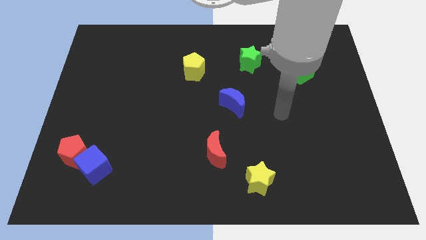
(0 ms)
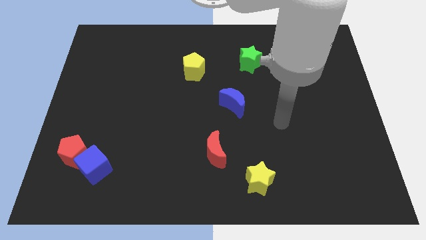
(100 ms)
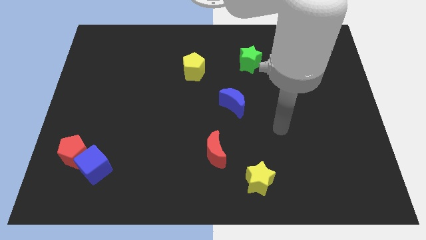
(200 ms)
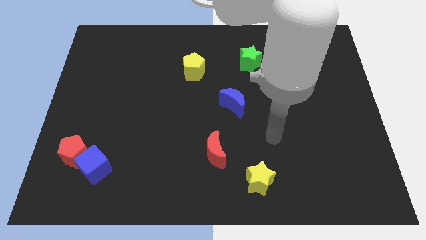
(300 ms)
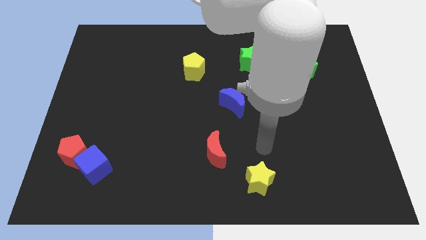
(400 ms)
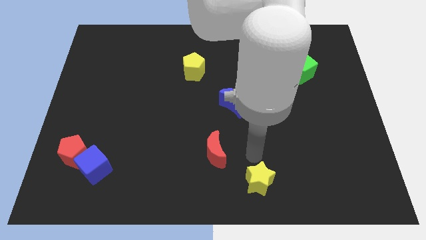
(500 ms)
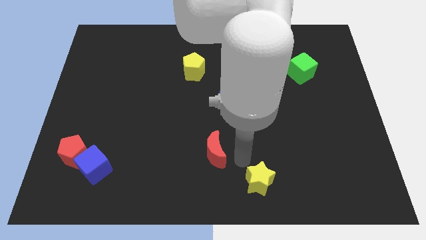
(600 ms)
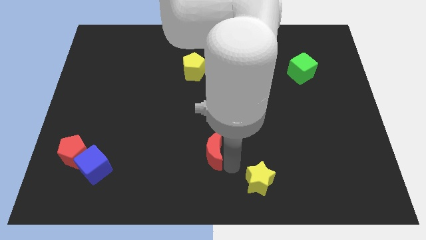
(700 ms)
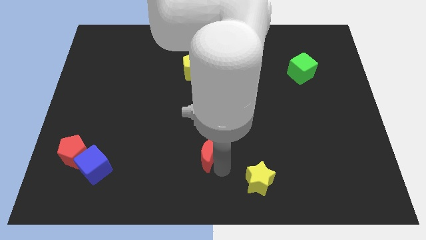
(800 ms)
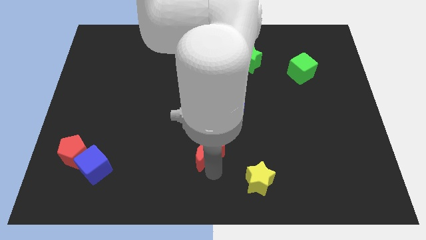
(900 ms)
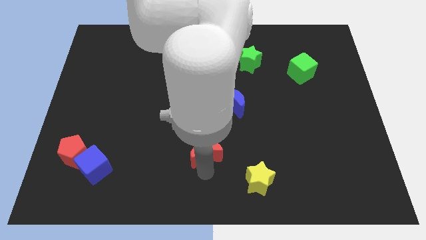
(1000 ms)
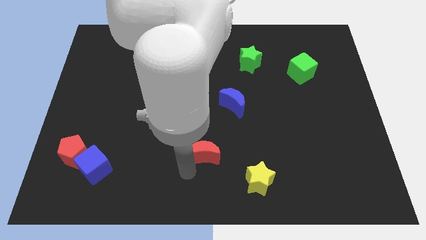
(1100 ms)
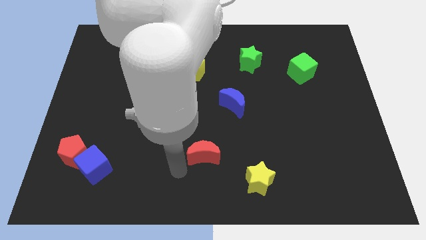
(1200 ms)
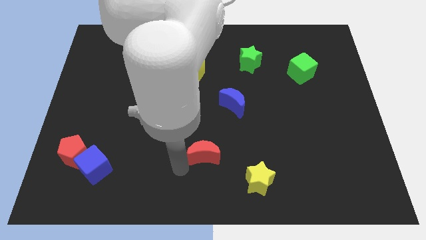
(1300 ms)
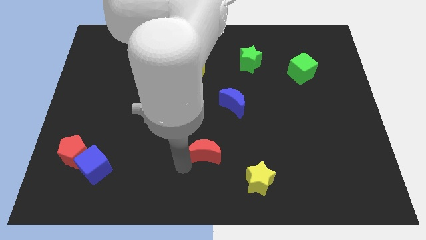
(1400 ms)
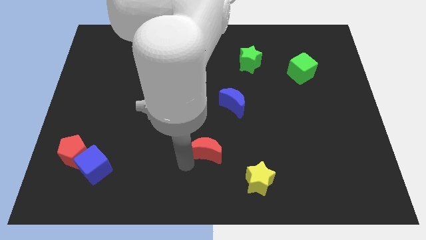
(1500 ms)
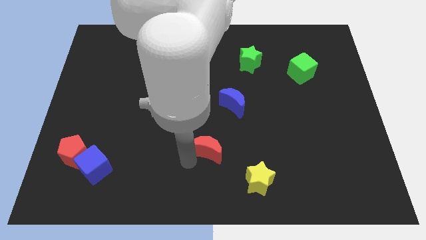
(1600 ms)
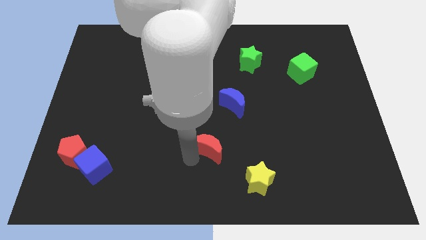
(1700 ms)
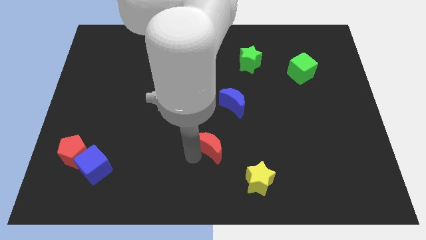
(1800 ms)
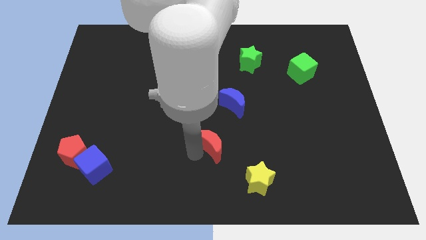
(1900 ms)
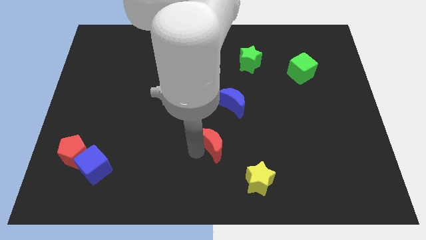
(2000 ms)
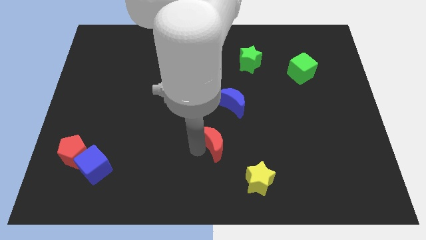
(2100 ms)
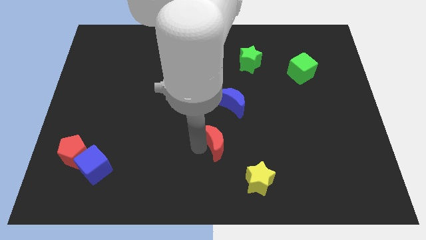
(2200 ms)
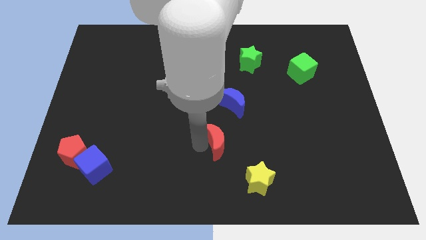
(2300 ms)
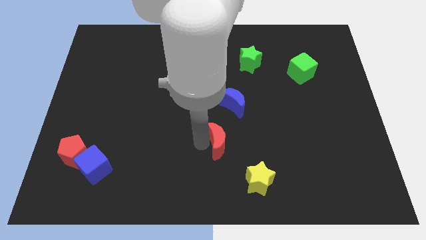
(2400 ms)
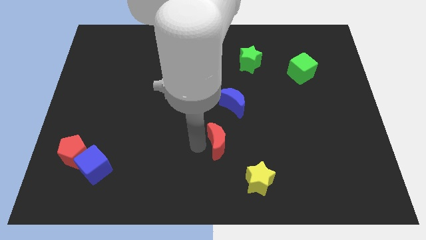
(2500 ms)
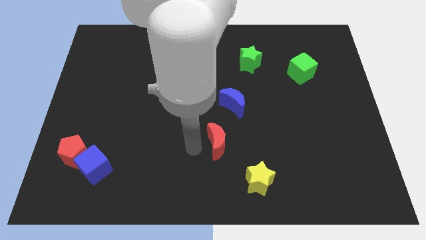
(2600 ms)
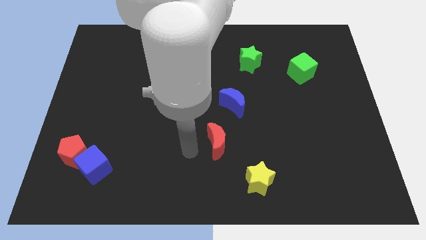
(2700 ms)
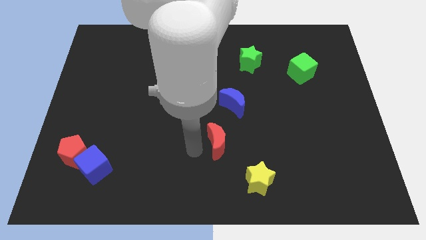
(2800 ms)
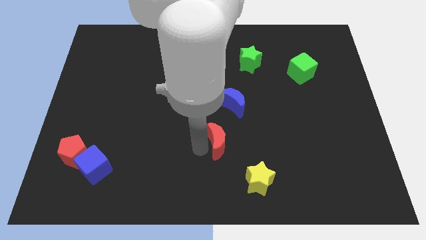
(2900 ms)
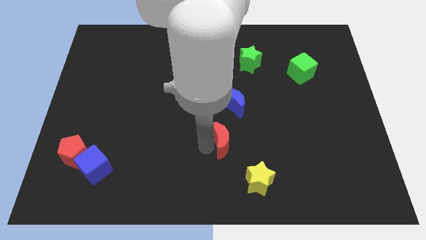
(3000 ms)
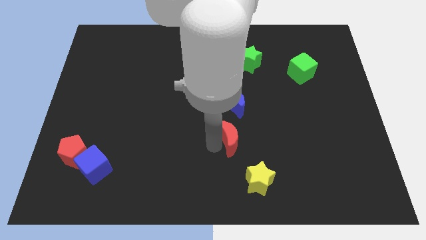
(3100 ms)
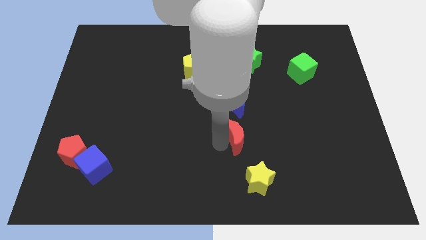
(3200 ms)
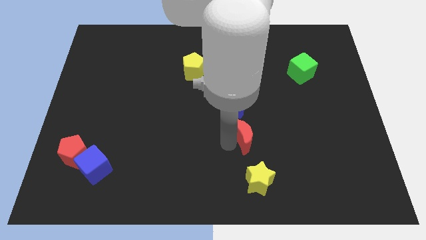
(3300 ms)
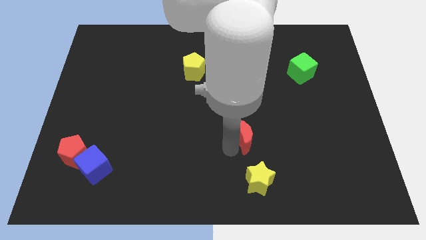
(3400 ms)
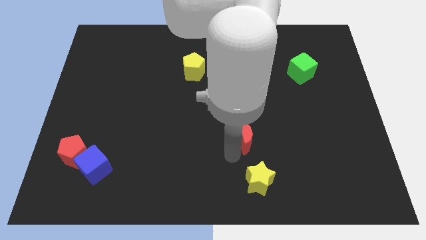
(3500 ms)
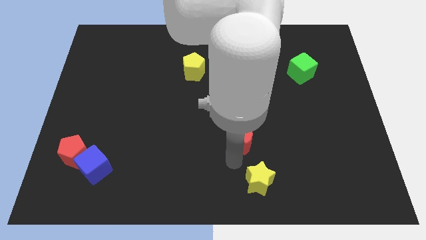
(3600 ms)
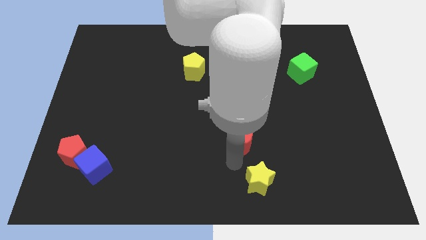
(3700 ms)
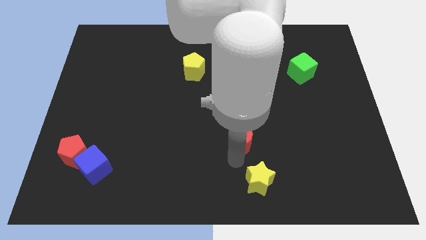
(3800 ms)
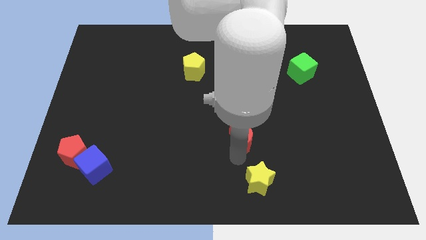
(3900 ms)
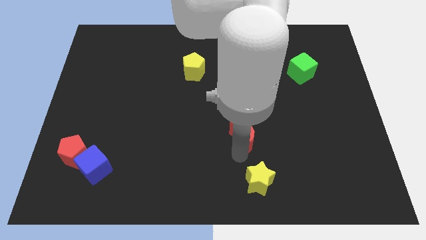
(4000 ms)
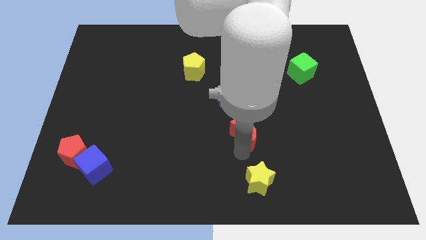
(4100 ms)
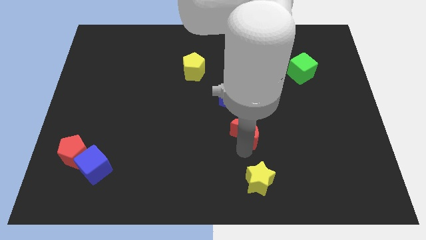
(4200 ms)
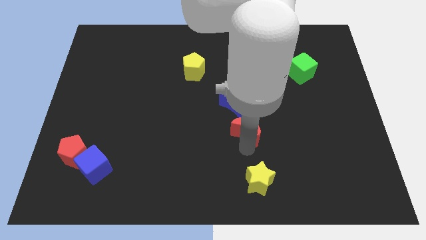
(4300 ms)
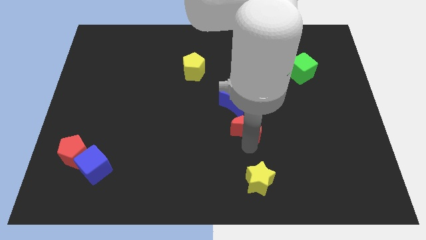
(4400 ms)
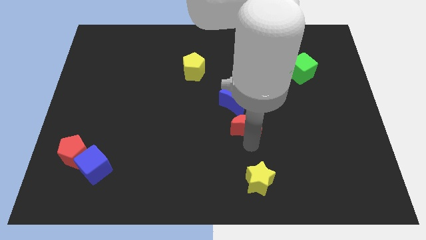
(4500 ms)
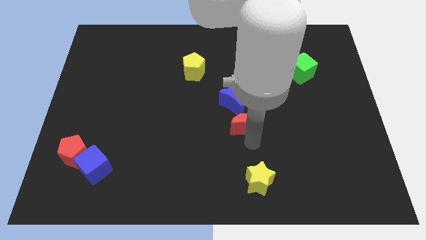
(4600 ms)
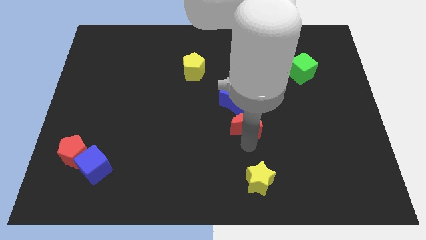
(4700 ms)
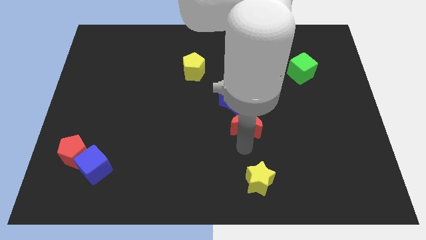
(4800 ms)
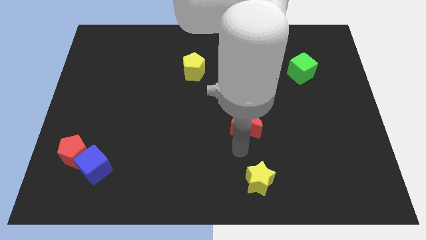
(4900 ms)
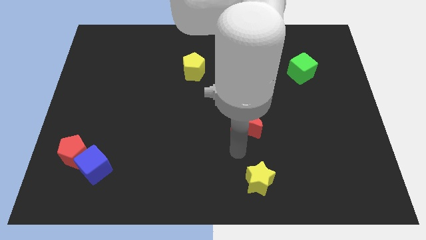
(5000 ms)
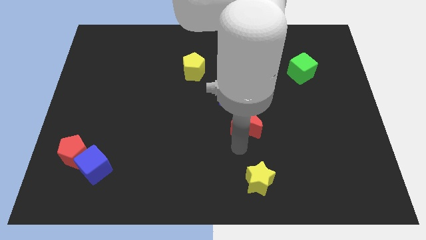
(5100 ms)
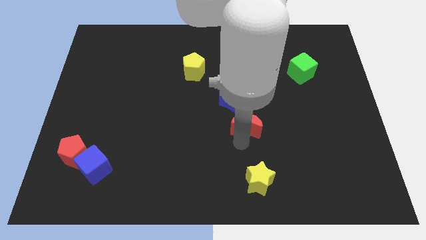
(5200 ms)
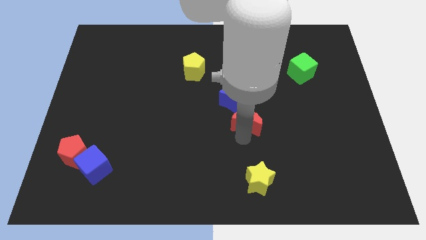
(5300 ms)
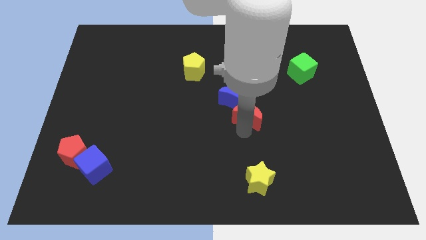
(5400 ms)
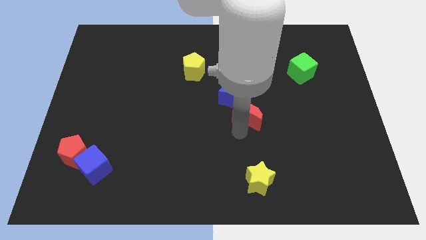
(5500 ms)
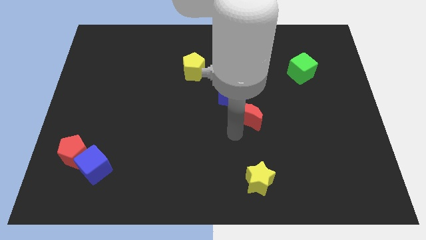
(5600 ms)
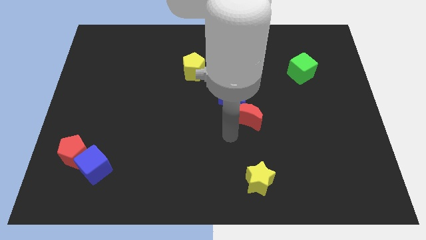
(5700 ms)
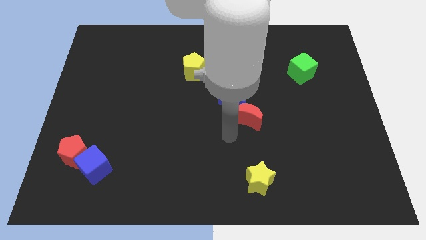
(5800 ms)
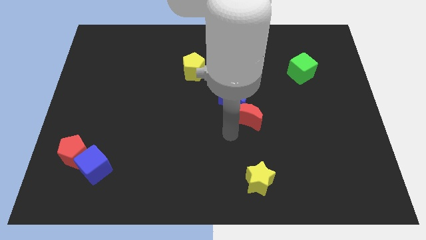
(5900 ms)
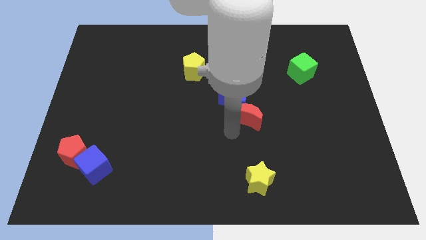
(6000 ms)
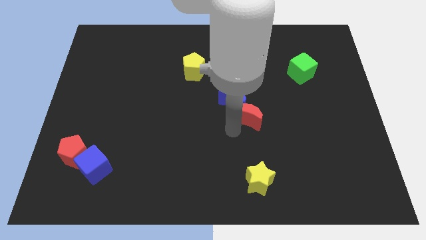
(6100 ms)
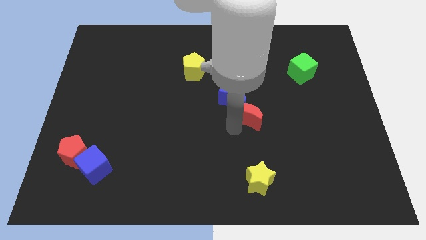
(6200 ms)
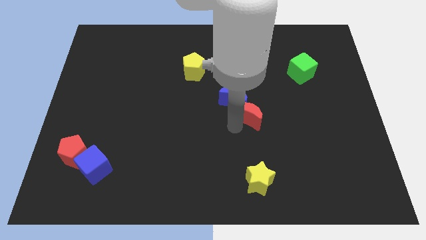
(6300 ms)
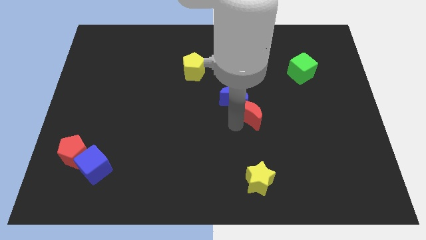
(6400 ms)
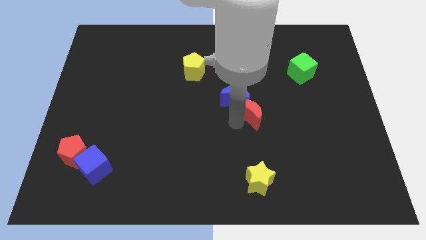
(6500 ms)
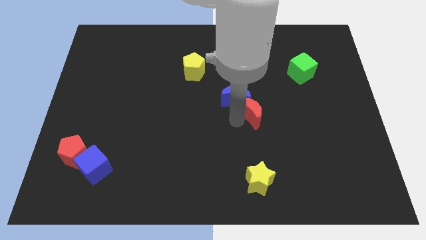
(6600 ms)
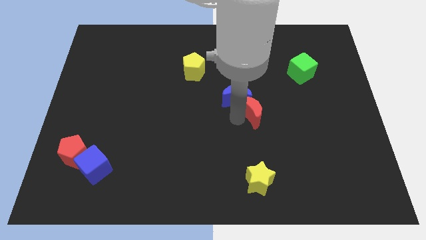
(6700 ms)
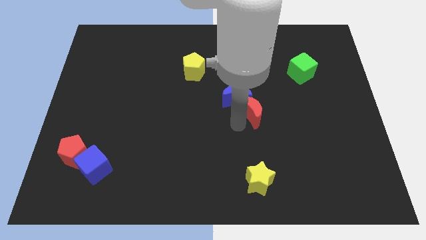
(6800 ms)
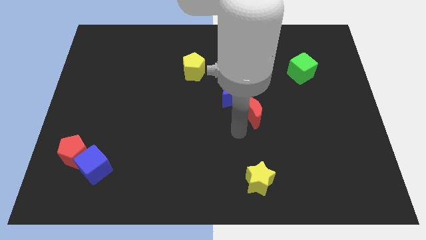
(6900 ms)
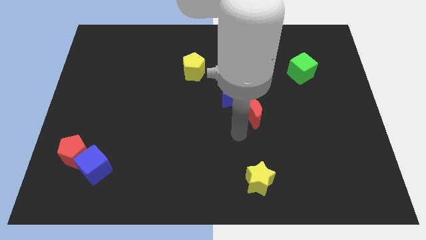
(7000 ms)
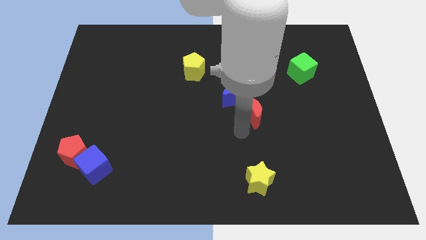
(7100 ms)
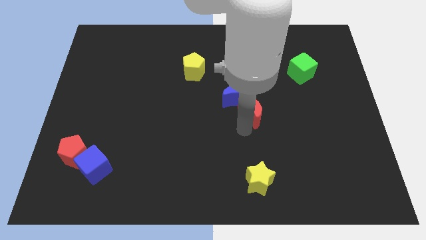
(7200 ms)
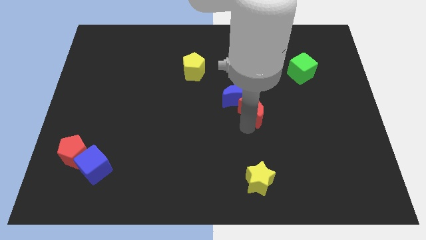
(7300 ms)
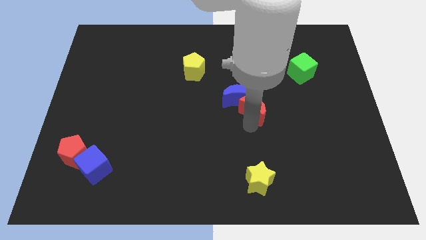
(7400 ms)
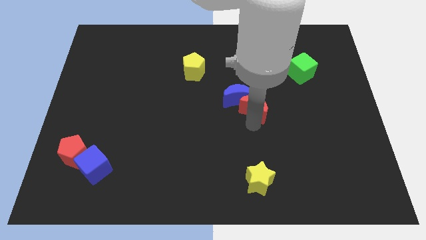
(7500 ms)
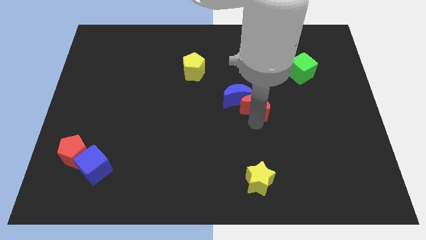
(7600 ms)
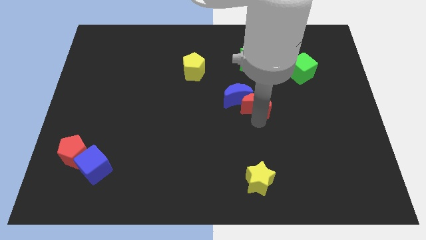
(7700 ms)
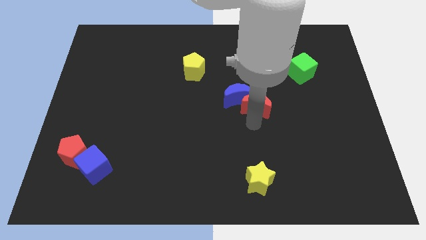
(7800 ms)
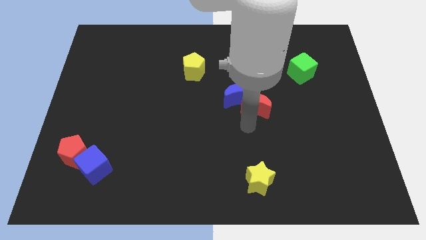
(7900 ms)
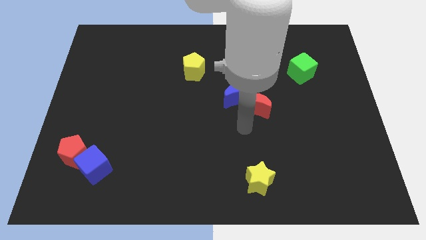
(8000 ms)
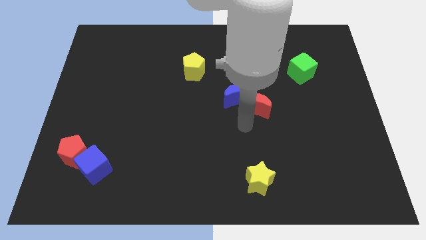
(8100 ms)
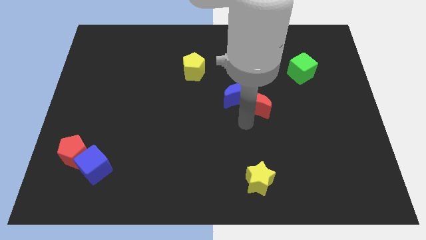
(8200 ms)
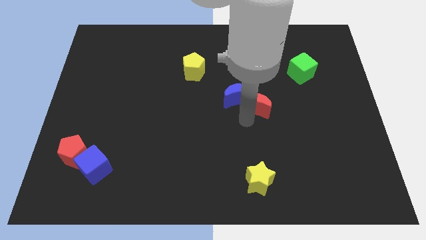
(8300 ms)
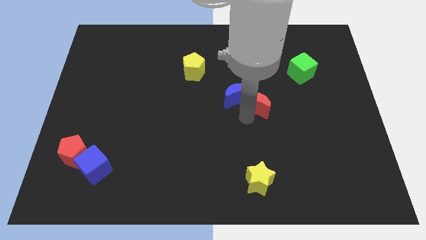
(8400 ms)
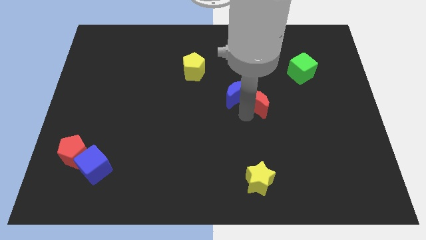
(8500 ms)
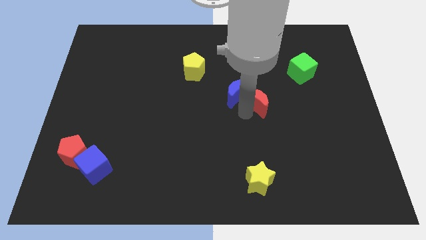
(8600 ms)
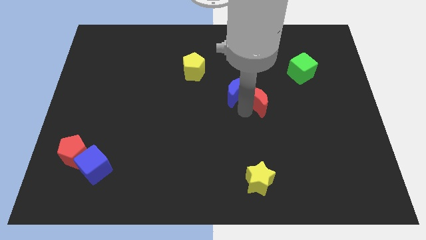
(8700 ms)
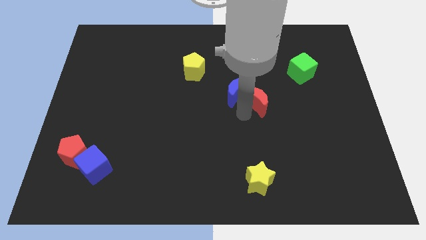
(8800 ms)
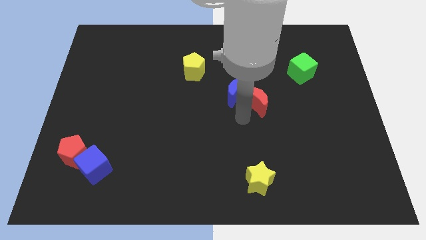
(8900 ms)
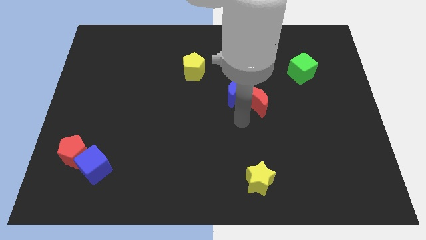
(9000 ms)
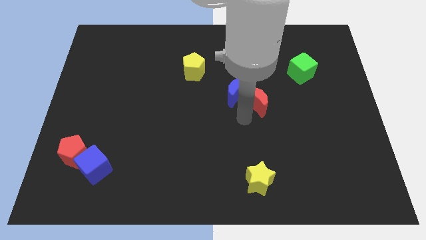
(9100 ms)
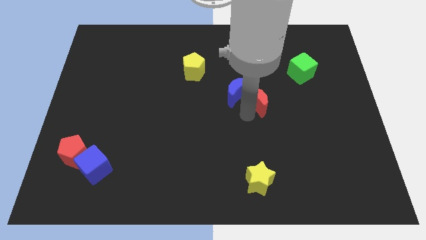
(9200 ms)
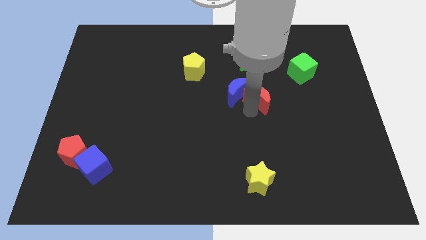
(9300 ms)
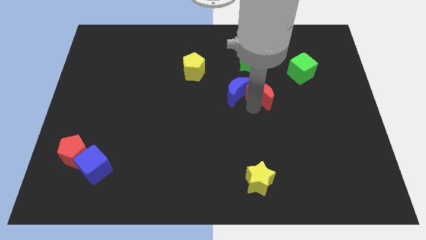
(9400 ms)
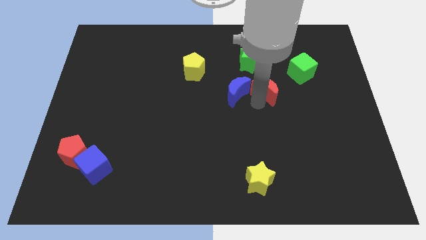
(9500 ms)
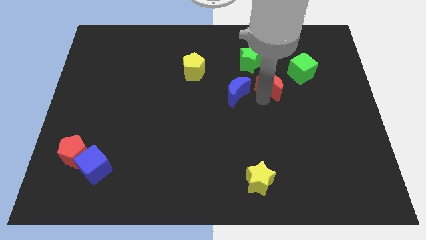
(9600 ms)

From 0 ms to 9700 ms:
put the red moon to the bottom right of the green star
